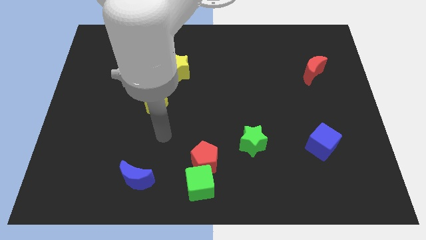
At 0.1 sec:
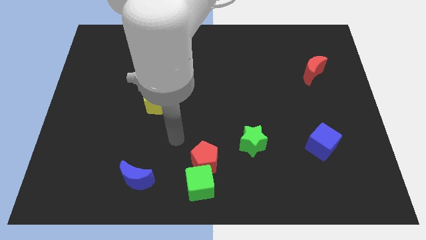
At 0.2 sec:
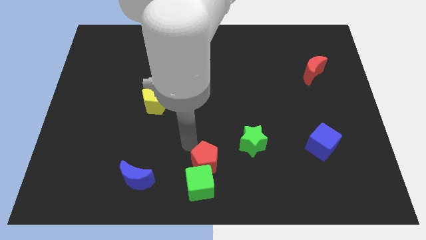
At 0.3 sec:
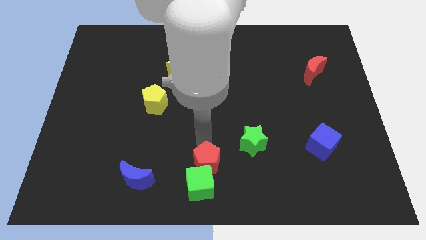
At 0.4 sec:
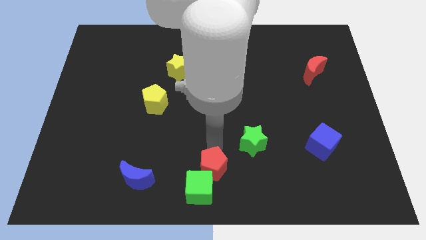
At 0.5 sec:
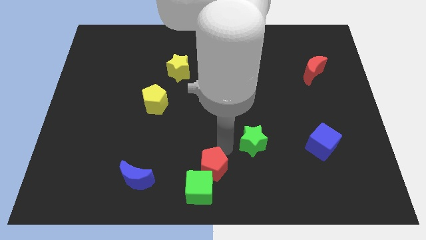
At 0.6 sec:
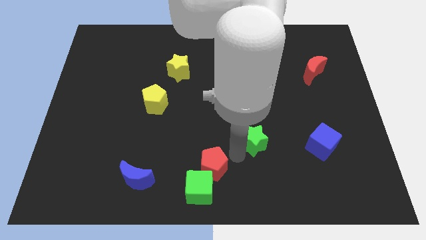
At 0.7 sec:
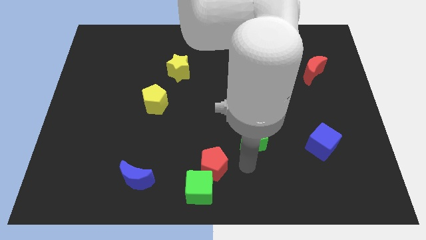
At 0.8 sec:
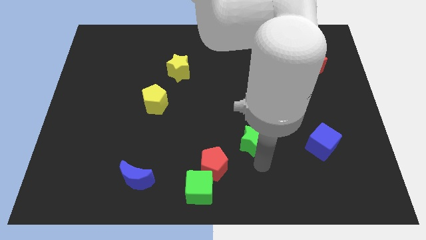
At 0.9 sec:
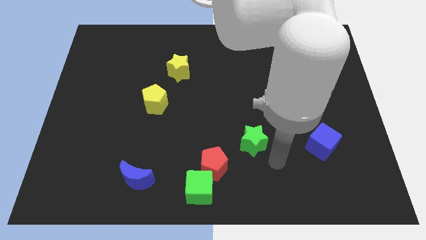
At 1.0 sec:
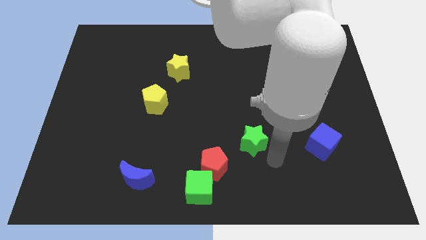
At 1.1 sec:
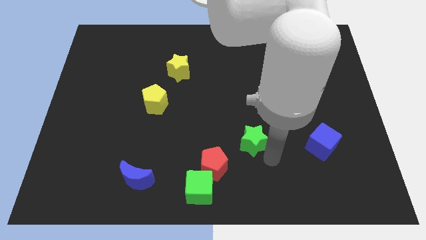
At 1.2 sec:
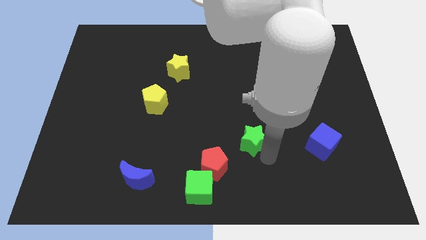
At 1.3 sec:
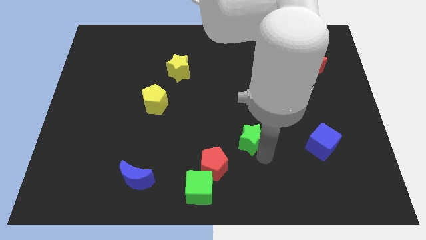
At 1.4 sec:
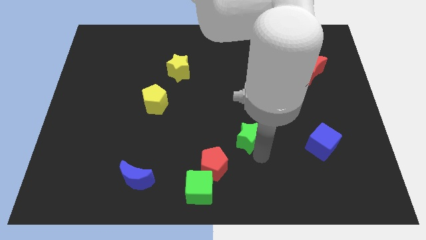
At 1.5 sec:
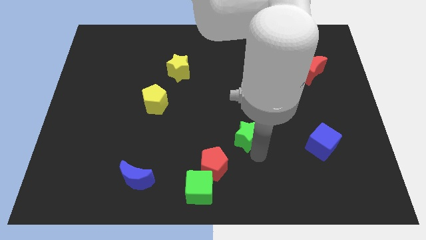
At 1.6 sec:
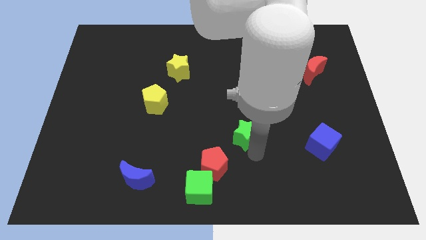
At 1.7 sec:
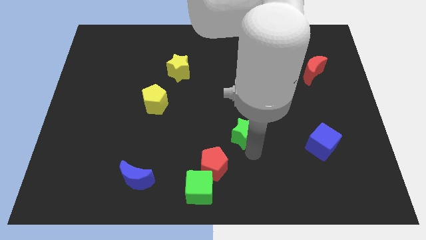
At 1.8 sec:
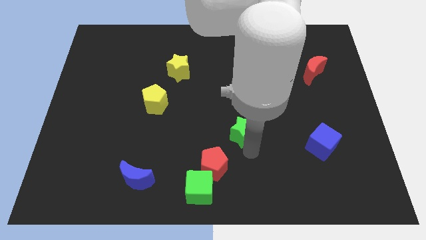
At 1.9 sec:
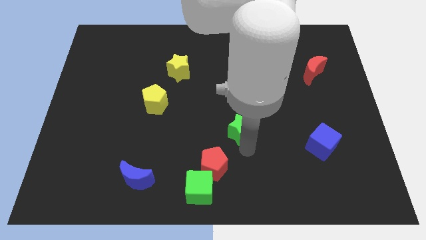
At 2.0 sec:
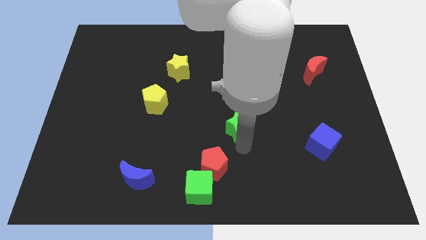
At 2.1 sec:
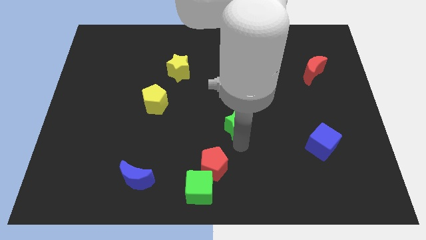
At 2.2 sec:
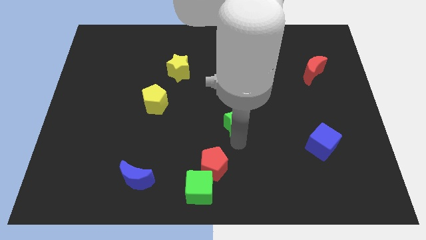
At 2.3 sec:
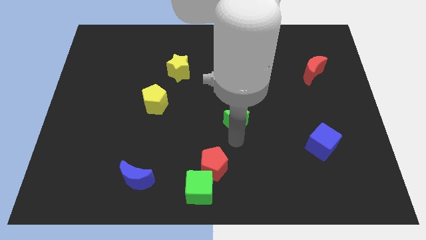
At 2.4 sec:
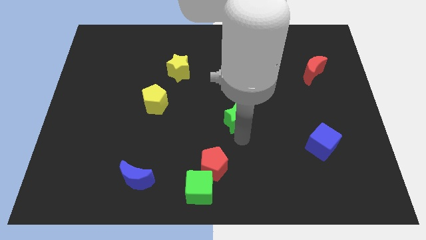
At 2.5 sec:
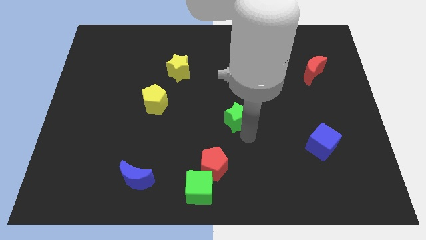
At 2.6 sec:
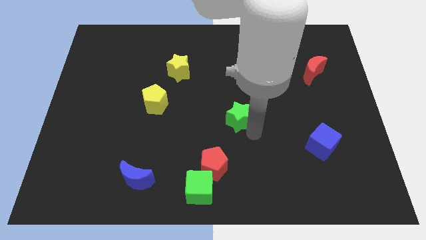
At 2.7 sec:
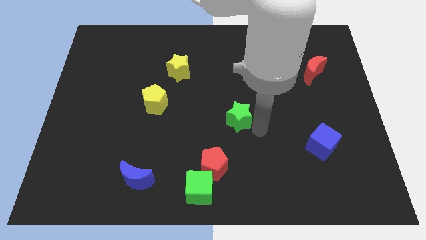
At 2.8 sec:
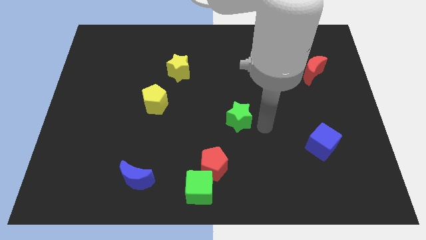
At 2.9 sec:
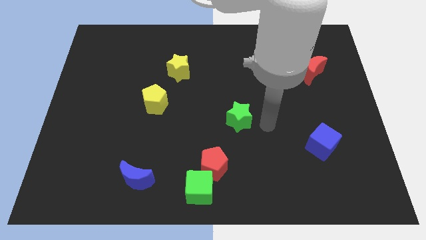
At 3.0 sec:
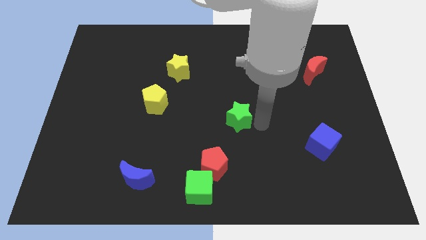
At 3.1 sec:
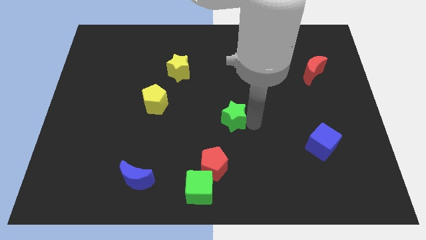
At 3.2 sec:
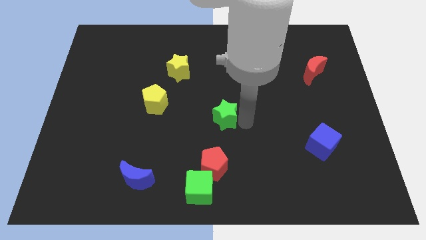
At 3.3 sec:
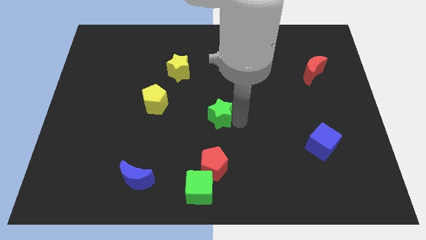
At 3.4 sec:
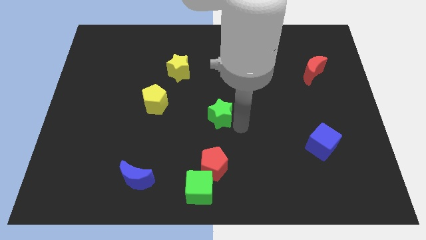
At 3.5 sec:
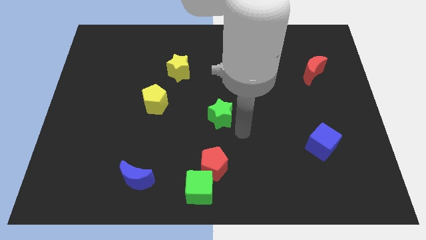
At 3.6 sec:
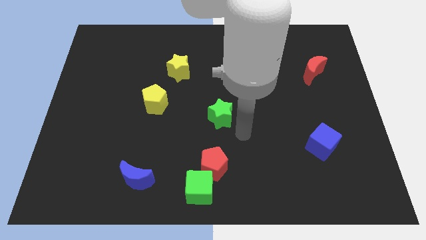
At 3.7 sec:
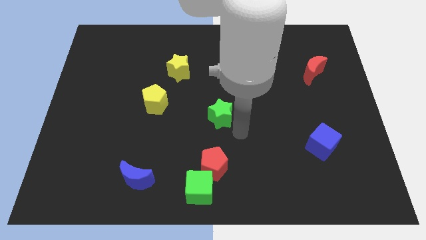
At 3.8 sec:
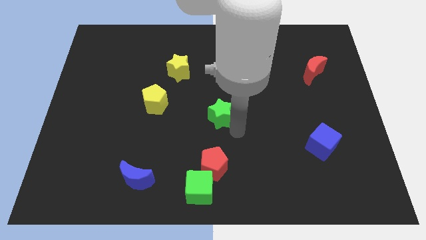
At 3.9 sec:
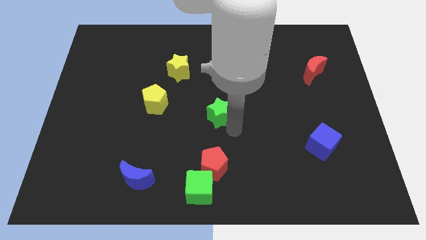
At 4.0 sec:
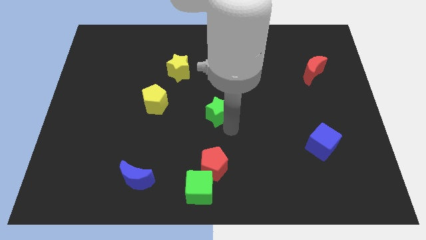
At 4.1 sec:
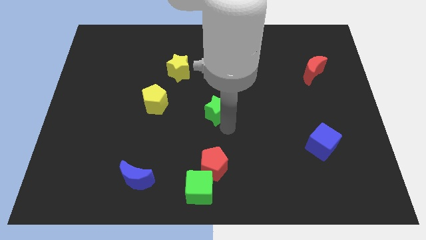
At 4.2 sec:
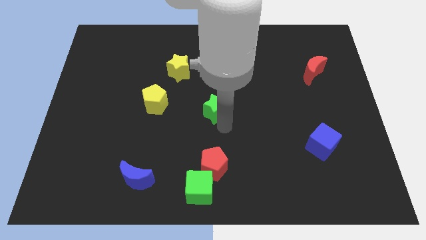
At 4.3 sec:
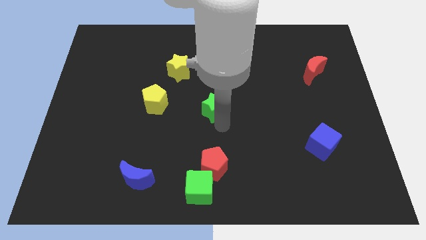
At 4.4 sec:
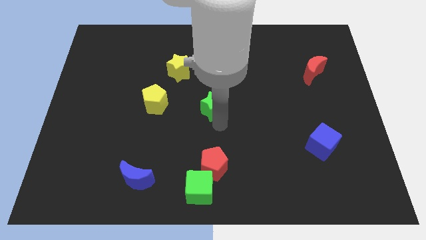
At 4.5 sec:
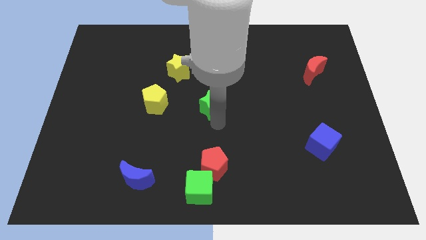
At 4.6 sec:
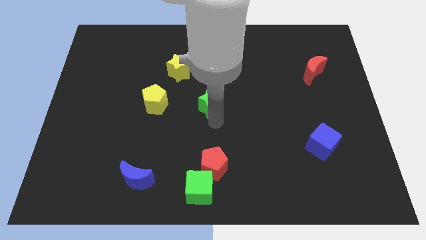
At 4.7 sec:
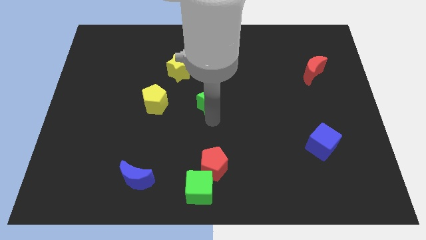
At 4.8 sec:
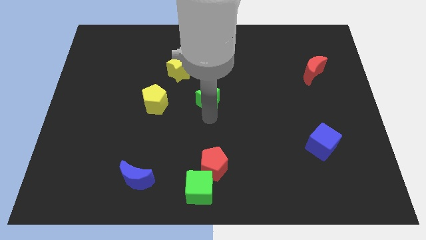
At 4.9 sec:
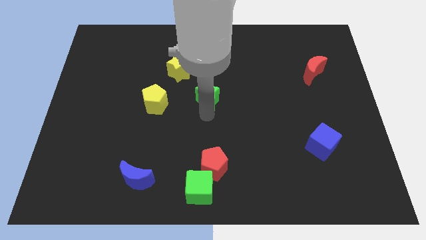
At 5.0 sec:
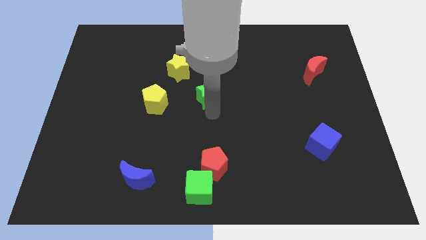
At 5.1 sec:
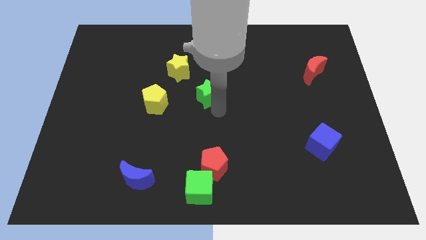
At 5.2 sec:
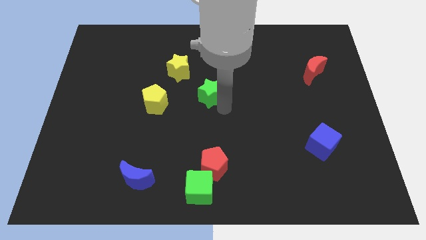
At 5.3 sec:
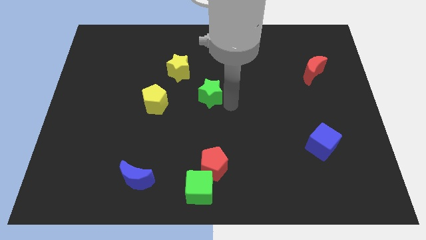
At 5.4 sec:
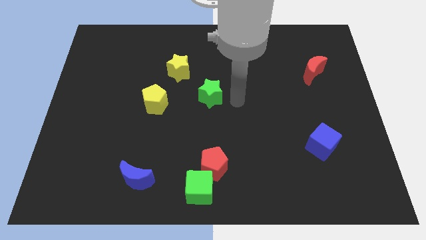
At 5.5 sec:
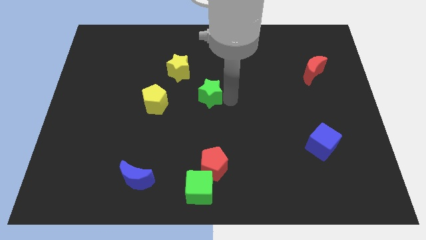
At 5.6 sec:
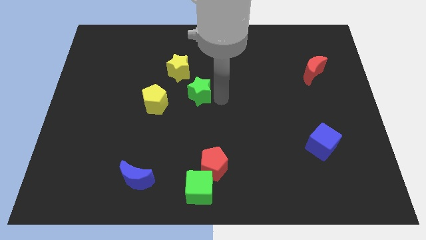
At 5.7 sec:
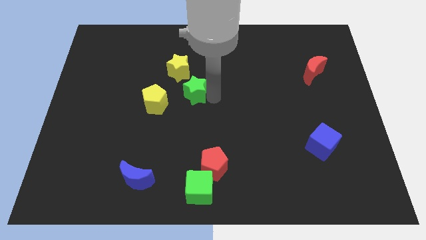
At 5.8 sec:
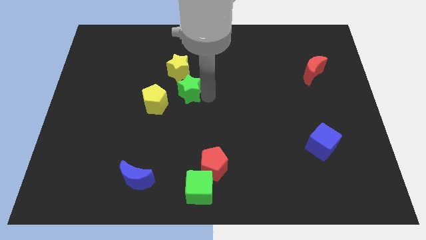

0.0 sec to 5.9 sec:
push the green star diagonally upwards and left

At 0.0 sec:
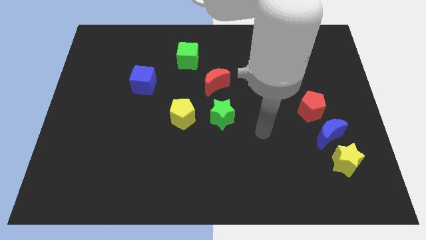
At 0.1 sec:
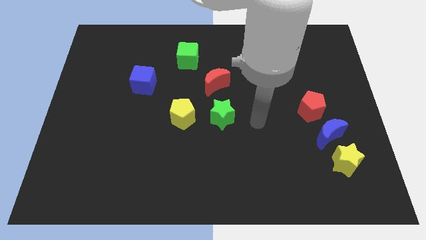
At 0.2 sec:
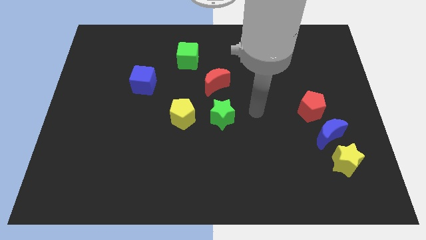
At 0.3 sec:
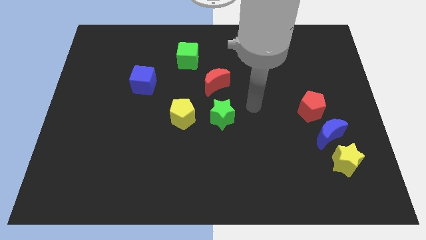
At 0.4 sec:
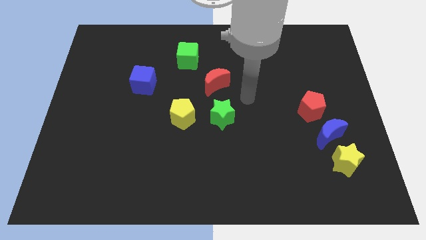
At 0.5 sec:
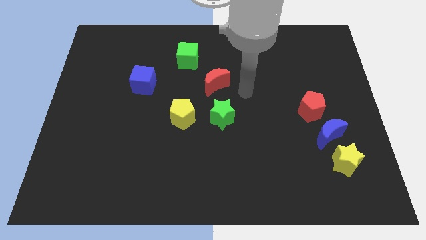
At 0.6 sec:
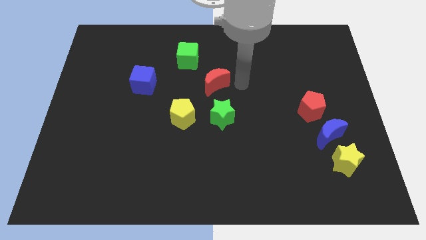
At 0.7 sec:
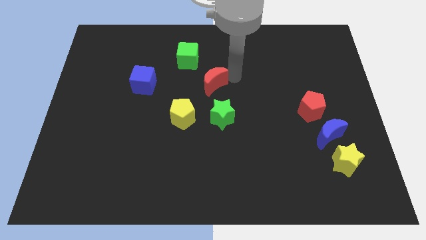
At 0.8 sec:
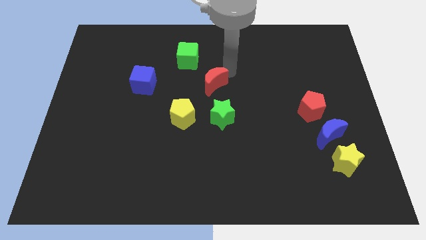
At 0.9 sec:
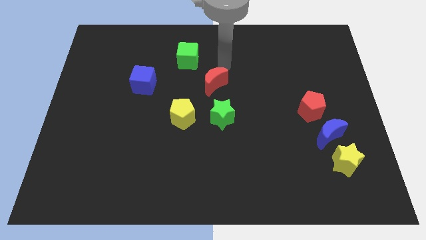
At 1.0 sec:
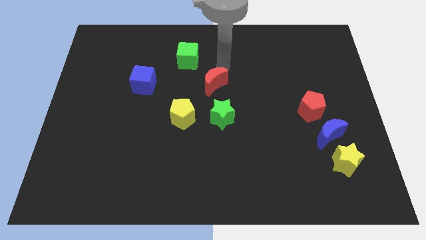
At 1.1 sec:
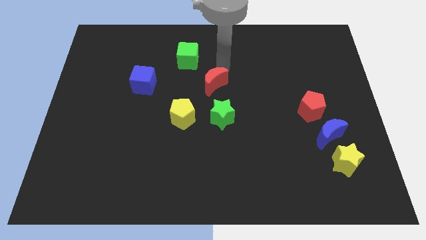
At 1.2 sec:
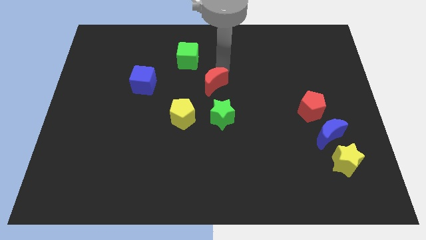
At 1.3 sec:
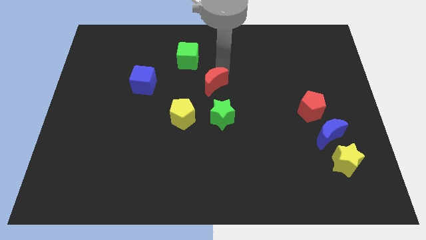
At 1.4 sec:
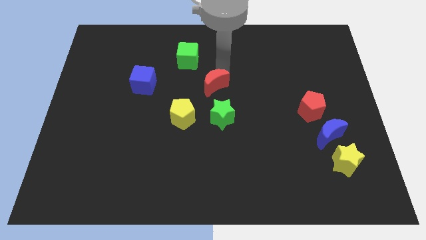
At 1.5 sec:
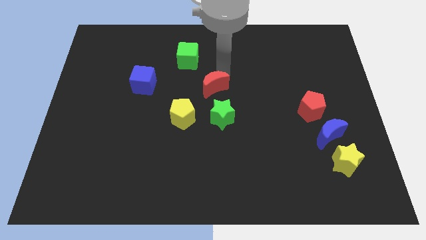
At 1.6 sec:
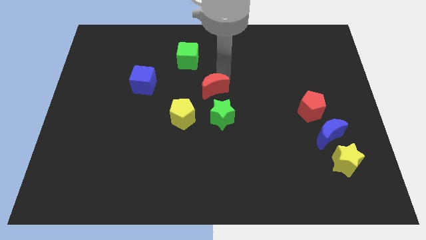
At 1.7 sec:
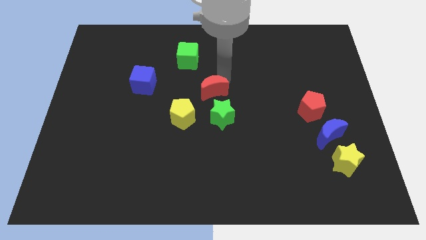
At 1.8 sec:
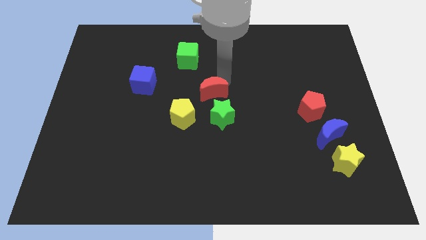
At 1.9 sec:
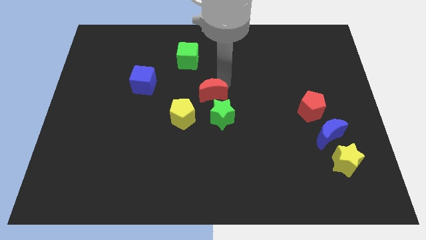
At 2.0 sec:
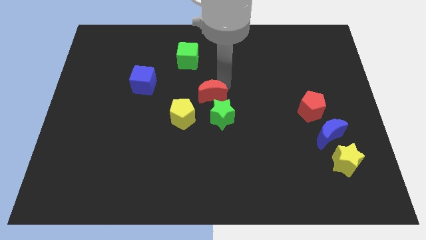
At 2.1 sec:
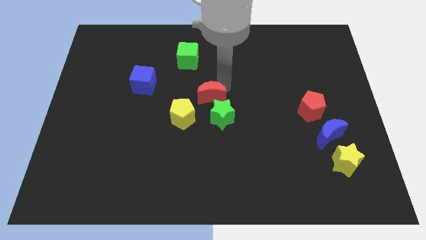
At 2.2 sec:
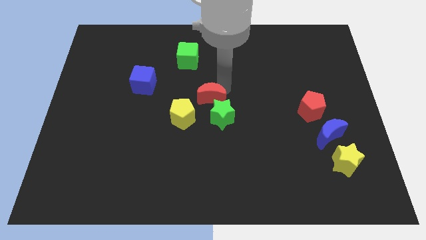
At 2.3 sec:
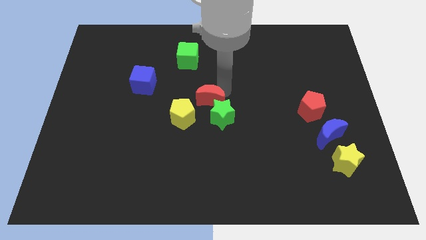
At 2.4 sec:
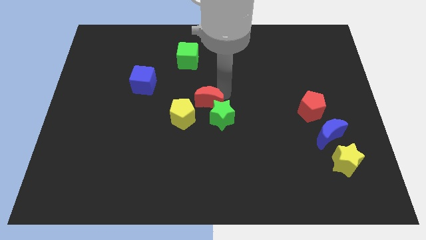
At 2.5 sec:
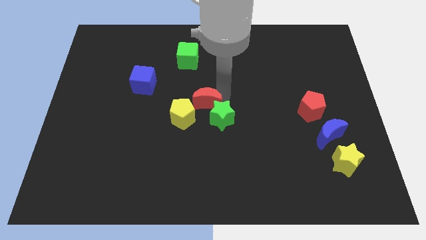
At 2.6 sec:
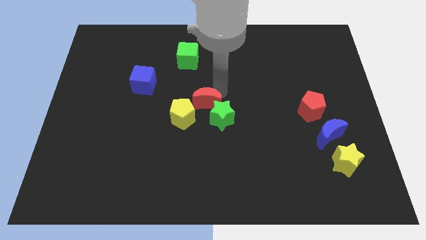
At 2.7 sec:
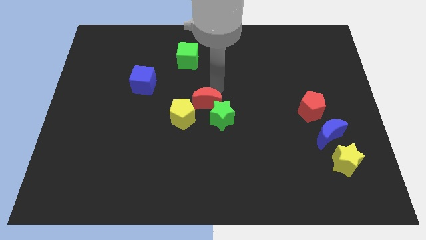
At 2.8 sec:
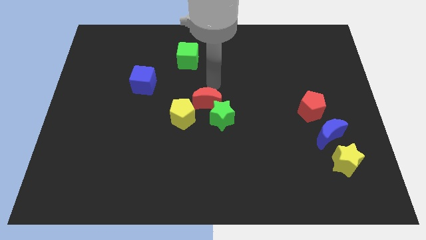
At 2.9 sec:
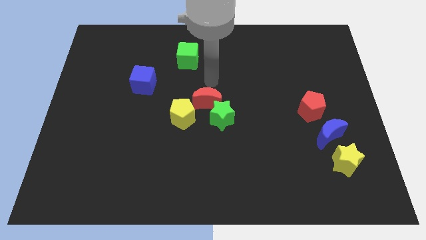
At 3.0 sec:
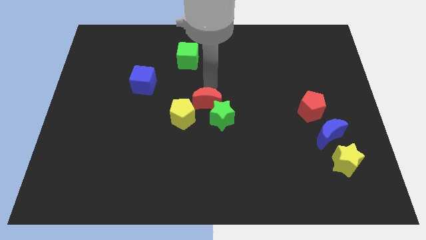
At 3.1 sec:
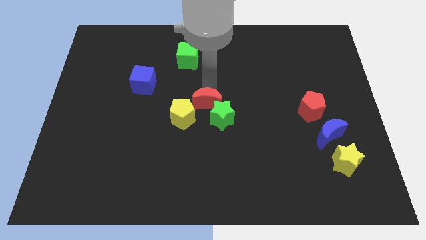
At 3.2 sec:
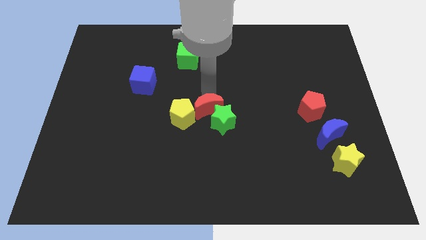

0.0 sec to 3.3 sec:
slightly push the red moon down
